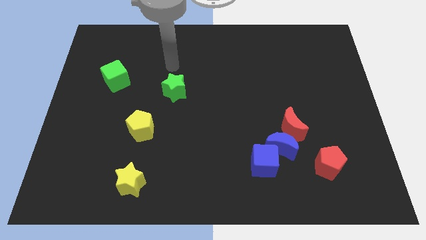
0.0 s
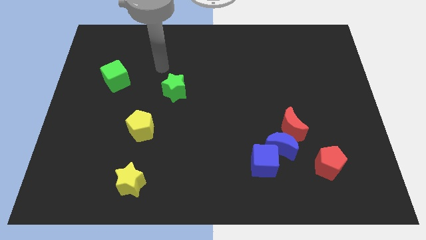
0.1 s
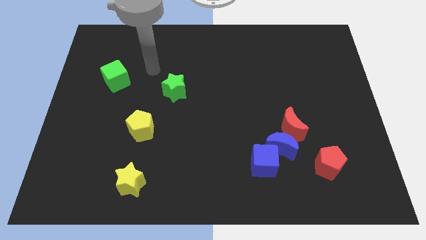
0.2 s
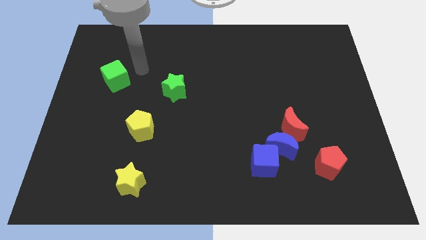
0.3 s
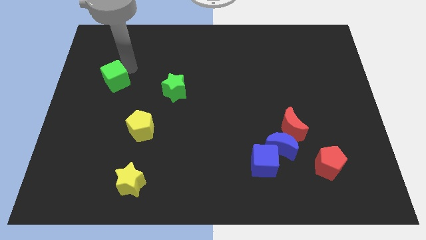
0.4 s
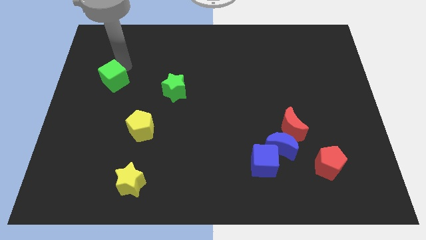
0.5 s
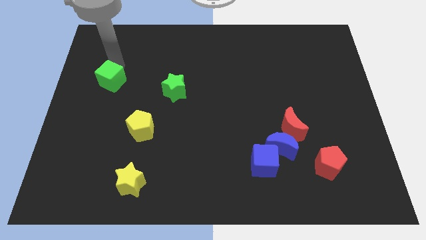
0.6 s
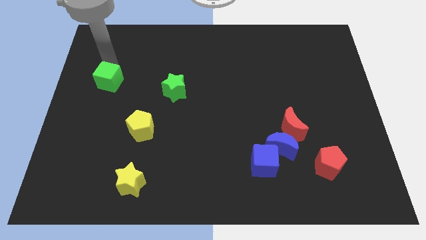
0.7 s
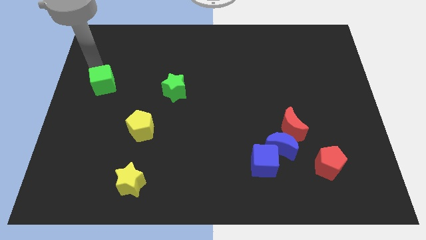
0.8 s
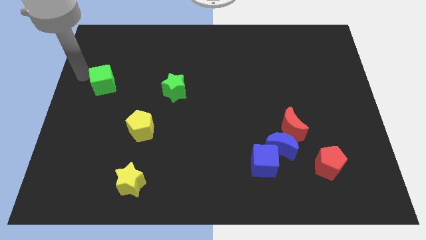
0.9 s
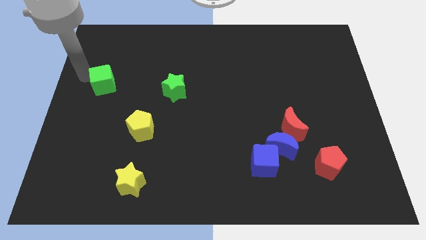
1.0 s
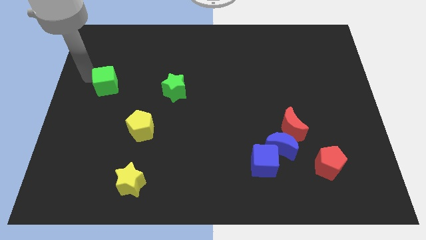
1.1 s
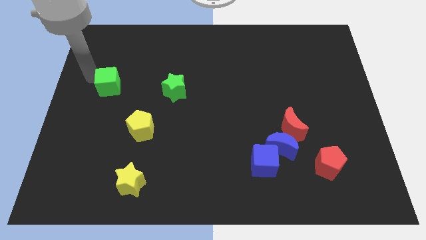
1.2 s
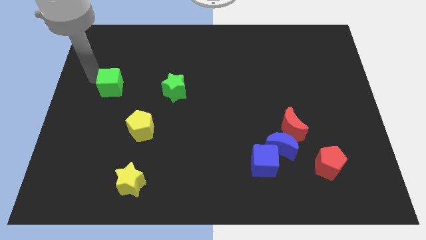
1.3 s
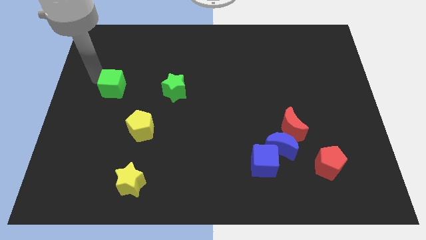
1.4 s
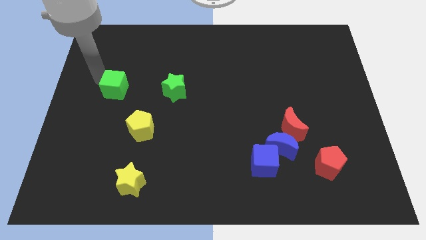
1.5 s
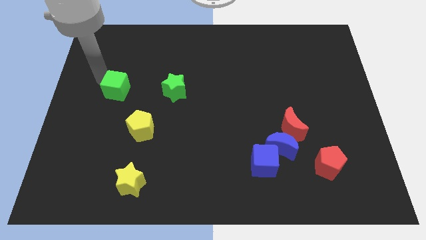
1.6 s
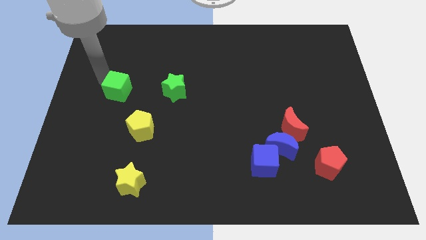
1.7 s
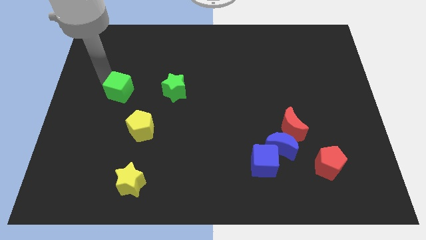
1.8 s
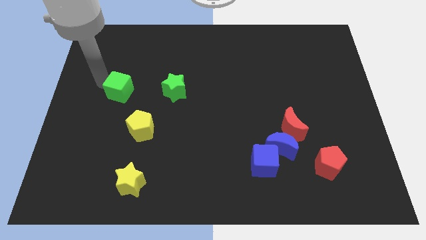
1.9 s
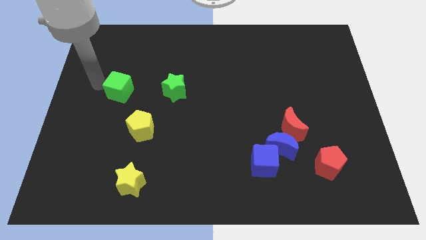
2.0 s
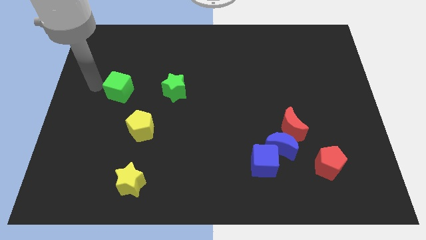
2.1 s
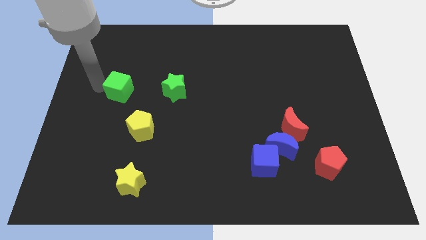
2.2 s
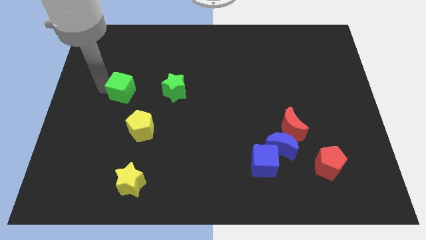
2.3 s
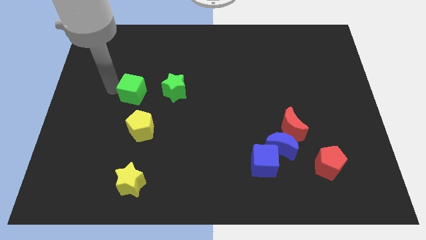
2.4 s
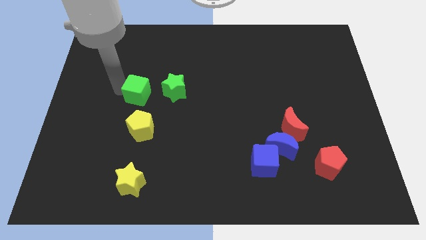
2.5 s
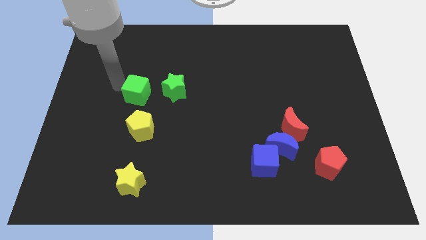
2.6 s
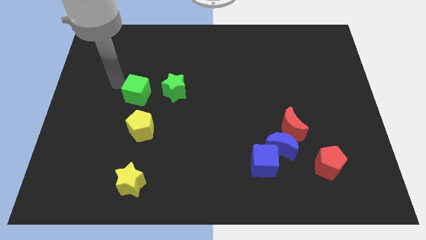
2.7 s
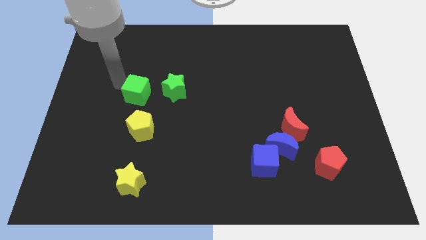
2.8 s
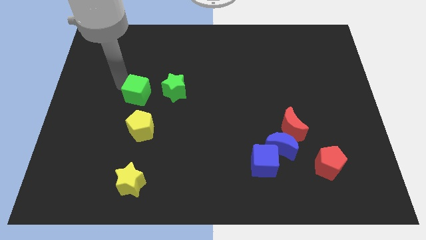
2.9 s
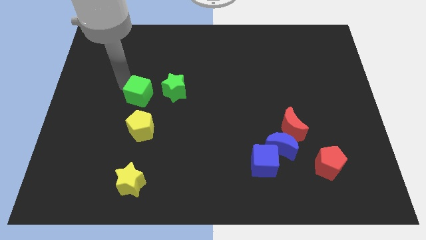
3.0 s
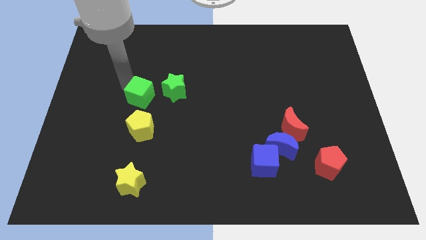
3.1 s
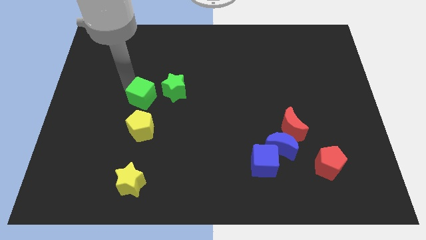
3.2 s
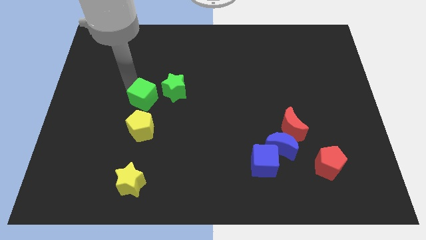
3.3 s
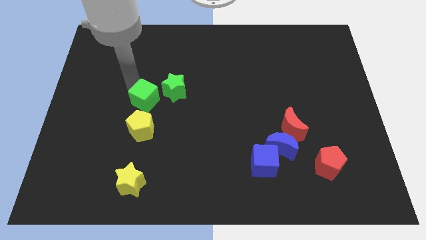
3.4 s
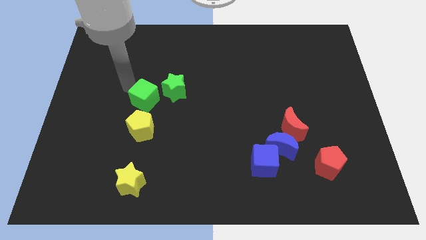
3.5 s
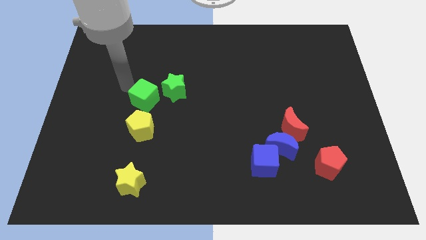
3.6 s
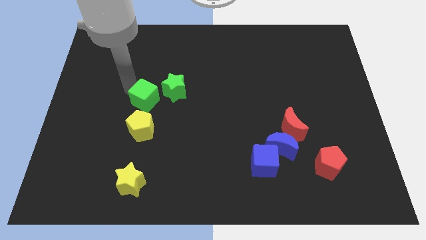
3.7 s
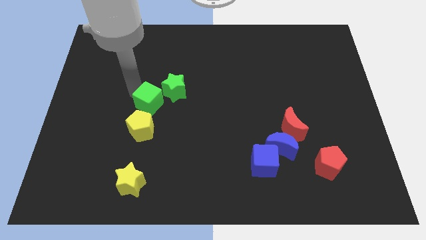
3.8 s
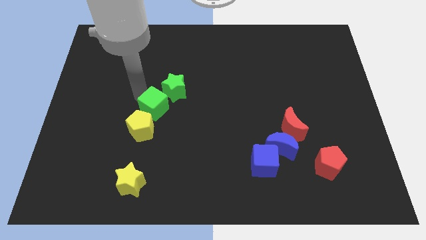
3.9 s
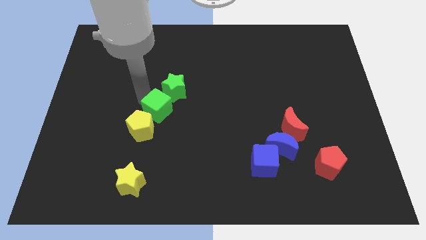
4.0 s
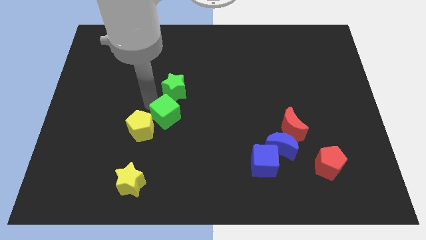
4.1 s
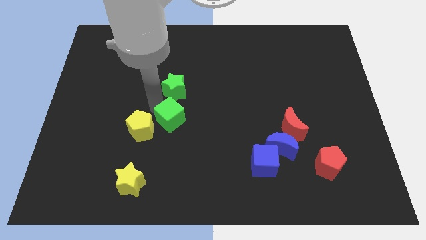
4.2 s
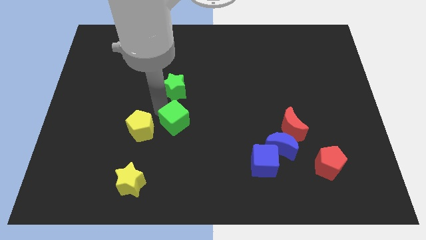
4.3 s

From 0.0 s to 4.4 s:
slide the green cube downwards and then right

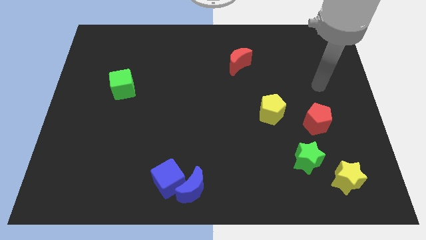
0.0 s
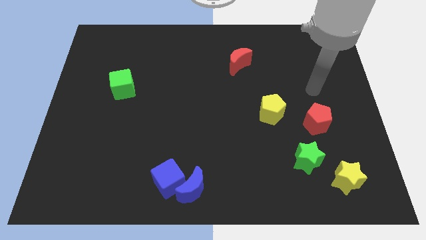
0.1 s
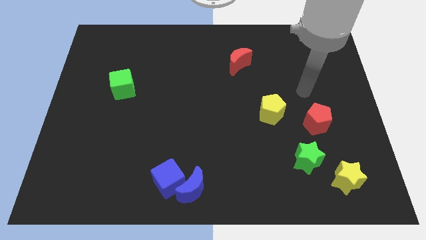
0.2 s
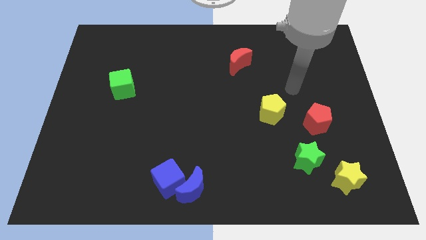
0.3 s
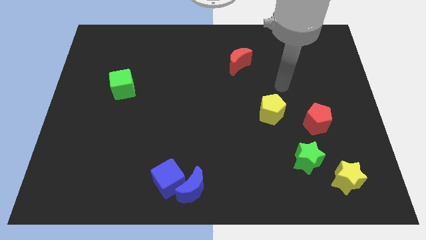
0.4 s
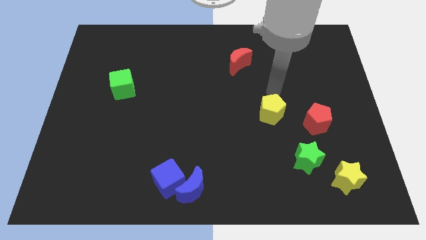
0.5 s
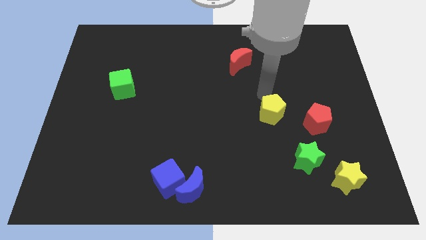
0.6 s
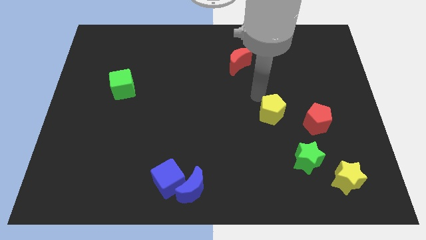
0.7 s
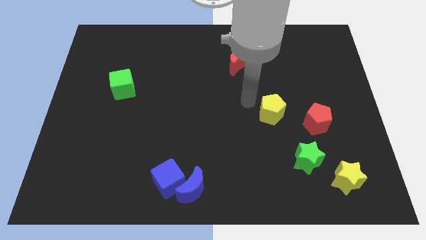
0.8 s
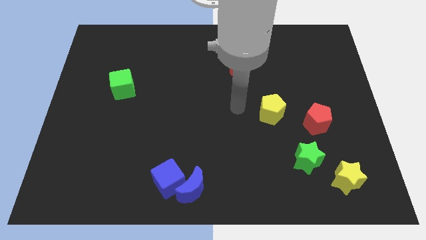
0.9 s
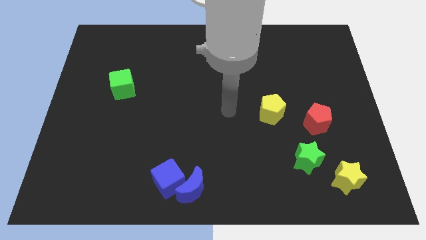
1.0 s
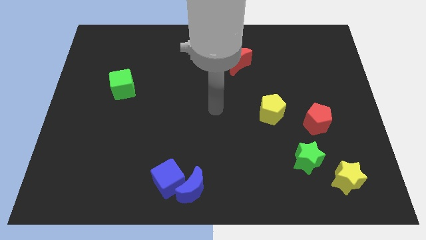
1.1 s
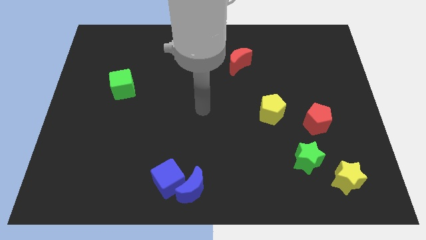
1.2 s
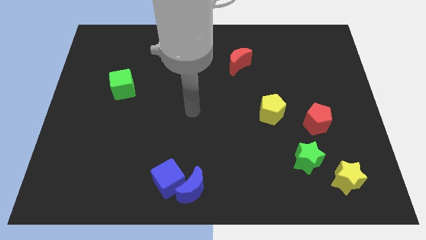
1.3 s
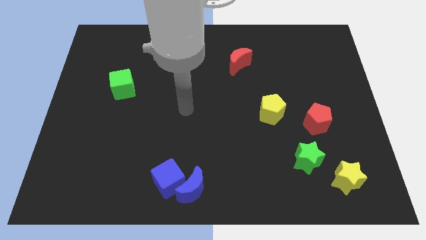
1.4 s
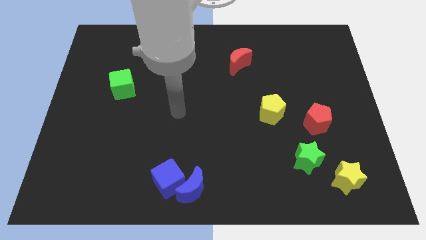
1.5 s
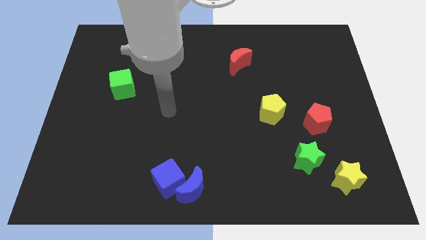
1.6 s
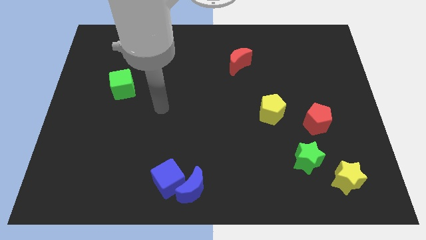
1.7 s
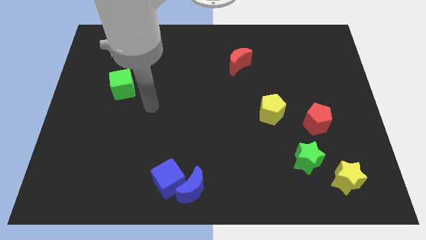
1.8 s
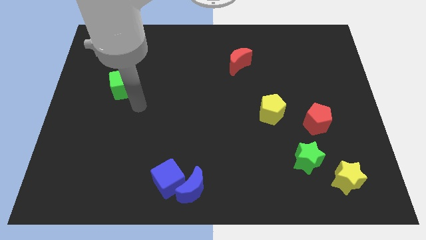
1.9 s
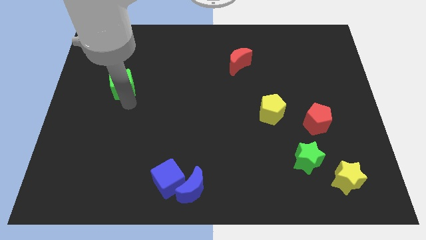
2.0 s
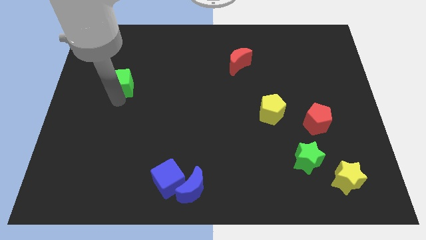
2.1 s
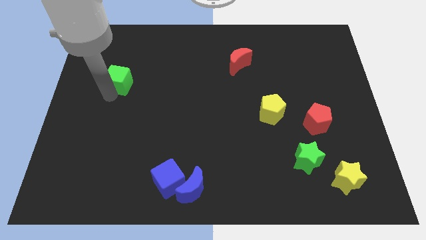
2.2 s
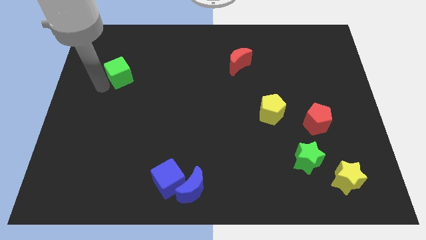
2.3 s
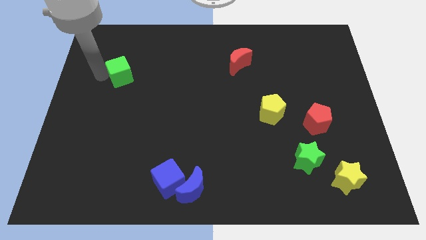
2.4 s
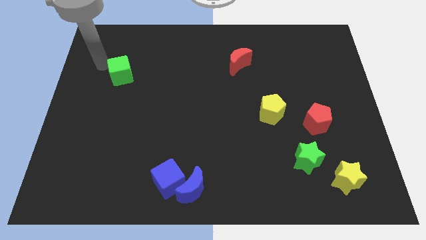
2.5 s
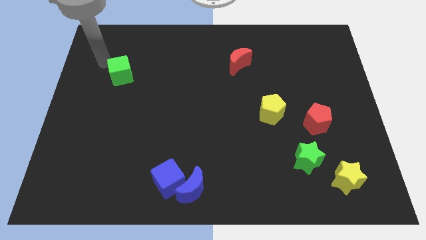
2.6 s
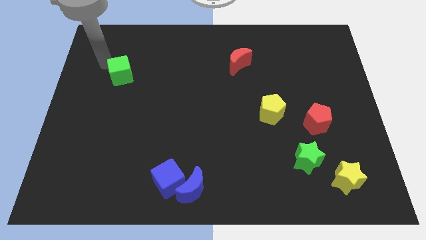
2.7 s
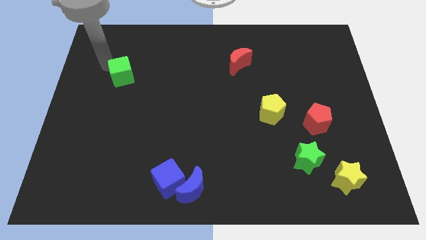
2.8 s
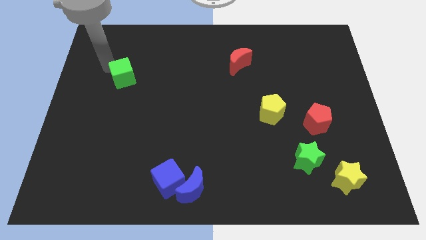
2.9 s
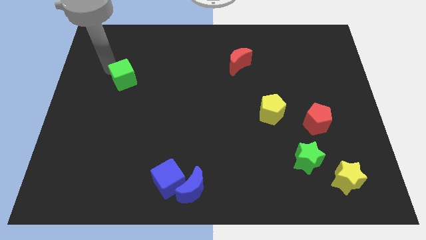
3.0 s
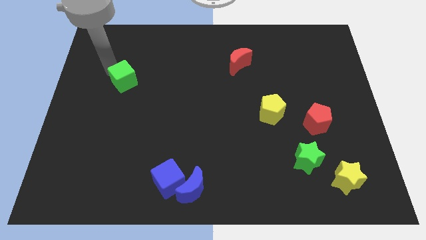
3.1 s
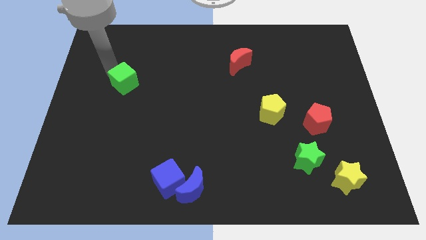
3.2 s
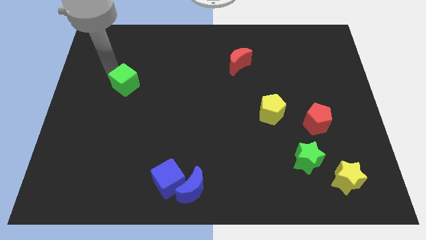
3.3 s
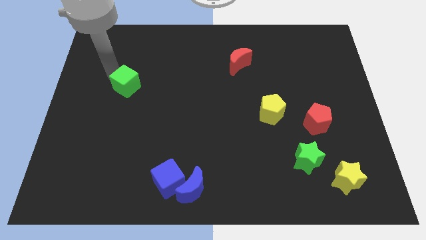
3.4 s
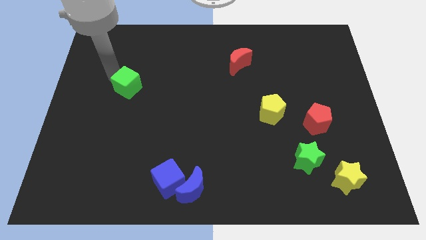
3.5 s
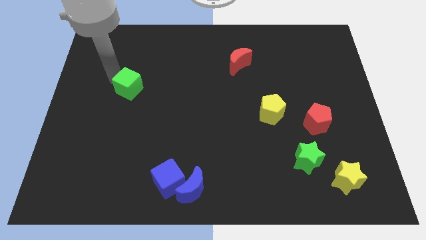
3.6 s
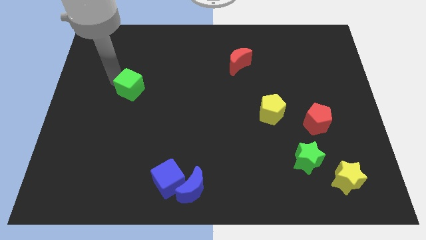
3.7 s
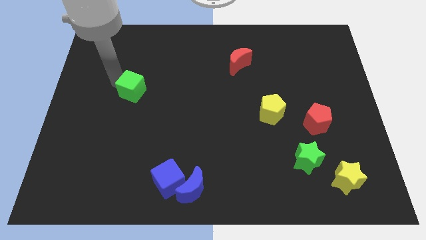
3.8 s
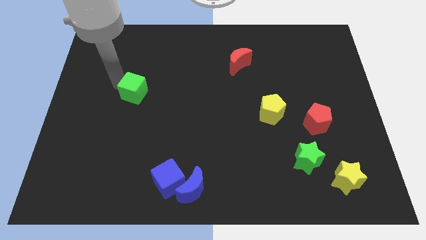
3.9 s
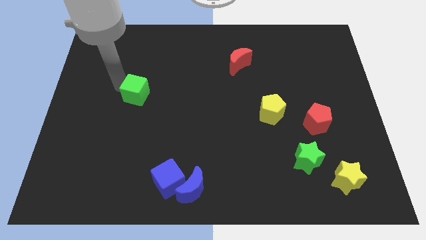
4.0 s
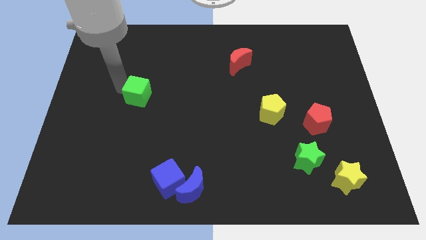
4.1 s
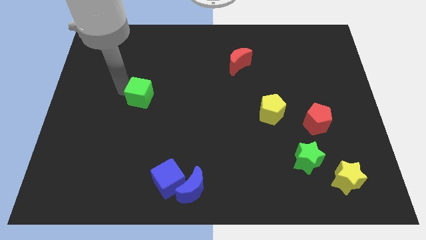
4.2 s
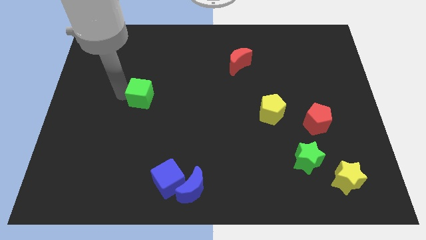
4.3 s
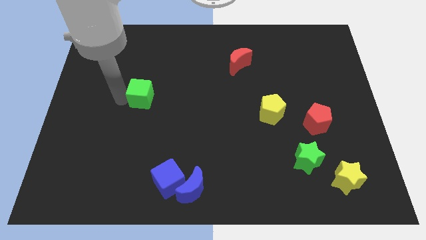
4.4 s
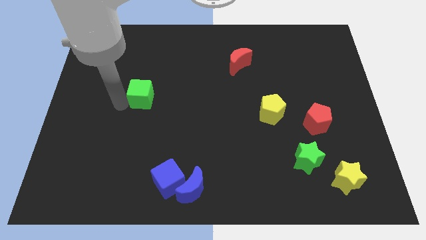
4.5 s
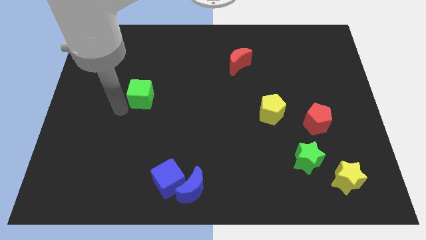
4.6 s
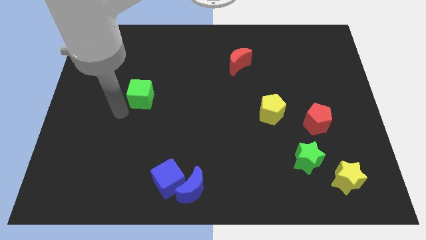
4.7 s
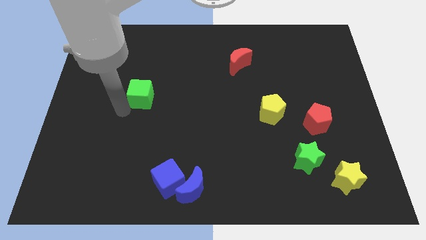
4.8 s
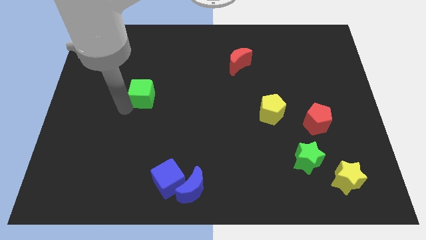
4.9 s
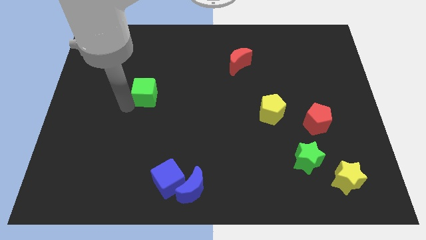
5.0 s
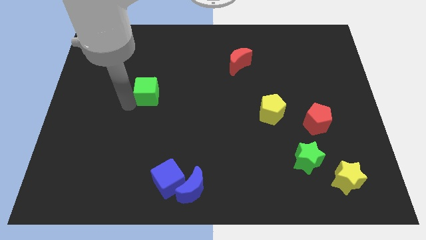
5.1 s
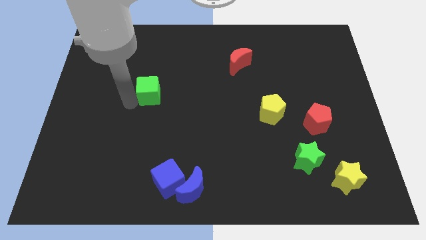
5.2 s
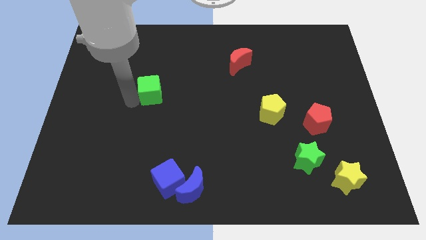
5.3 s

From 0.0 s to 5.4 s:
slightly slide the green cube right
